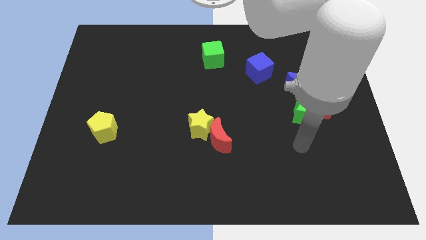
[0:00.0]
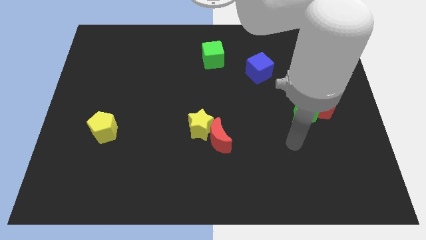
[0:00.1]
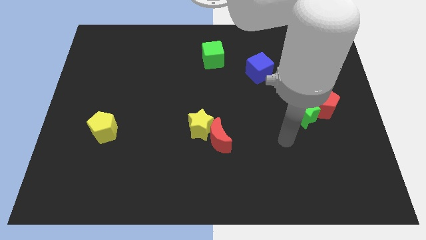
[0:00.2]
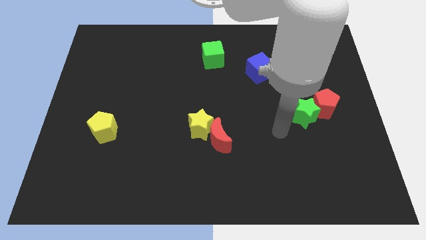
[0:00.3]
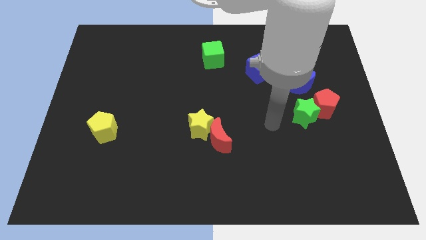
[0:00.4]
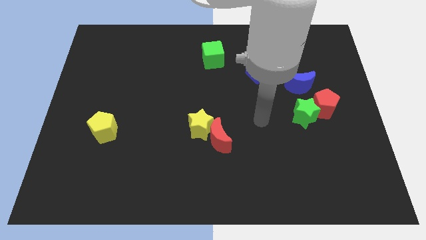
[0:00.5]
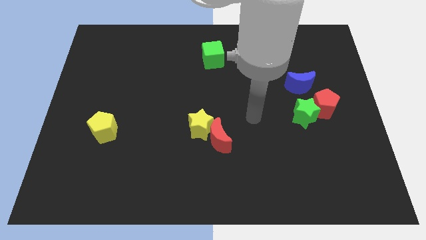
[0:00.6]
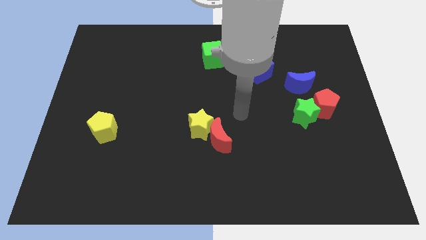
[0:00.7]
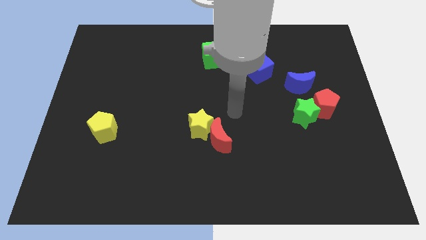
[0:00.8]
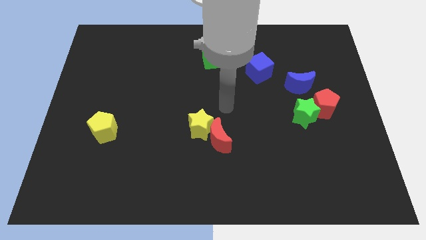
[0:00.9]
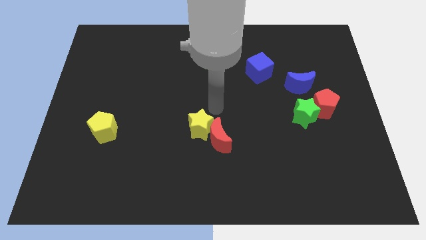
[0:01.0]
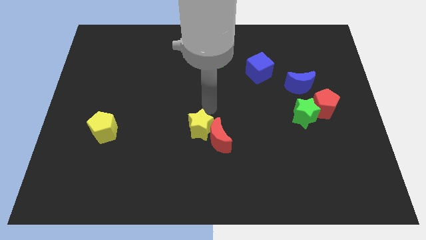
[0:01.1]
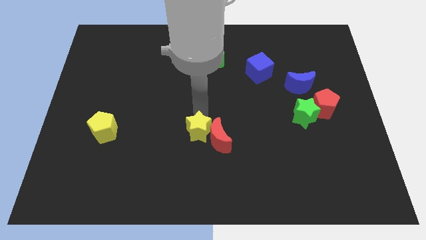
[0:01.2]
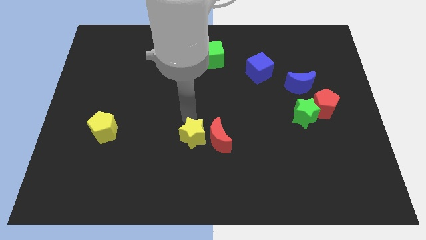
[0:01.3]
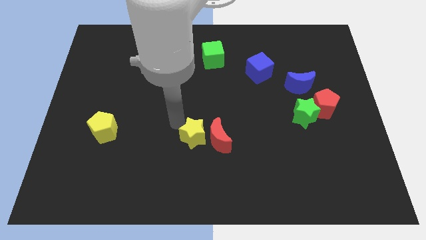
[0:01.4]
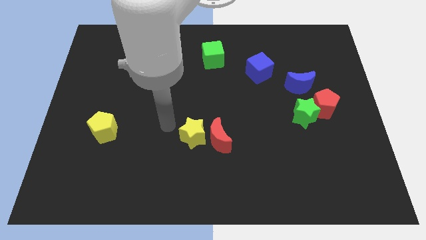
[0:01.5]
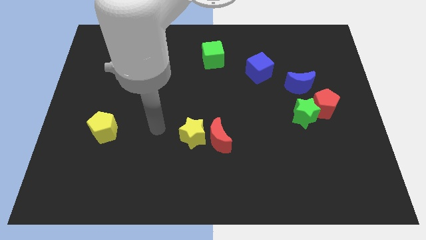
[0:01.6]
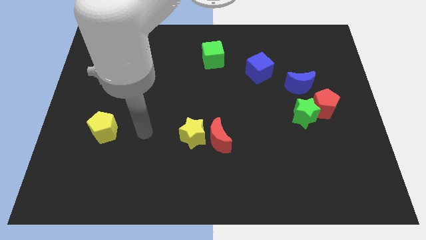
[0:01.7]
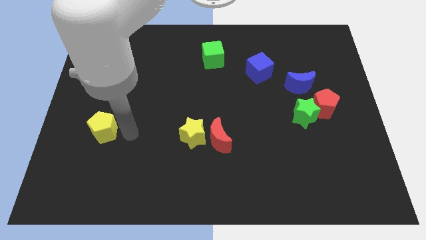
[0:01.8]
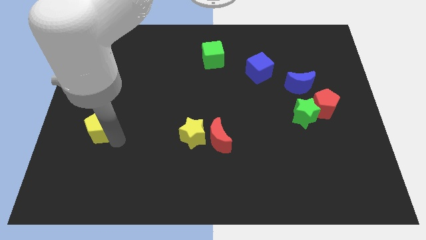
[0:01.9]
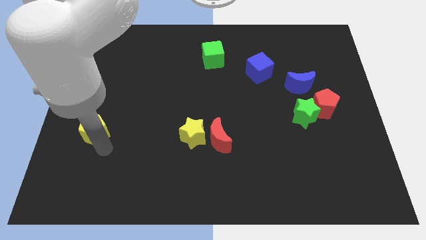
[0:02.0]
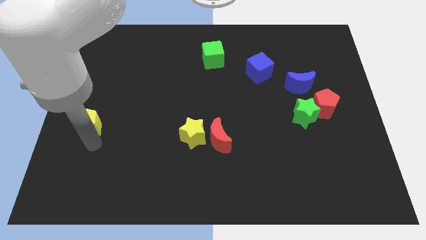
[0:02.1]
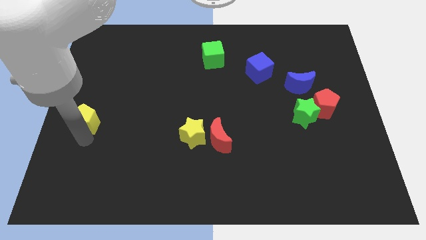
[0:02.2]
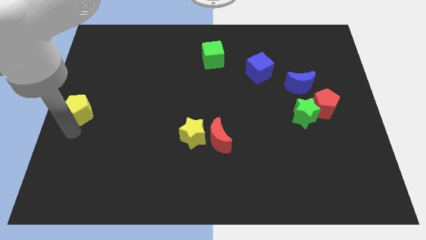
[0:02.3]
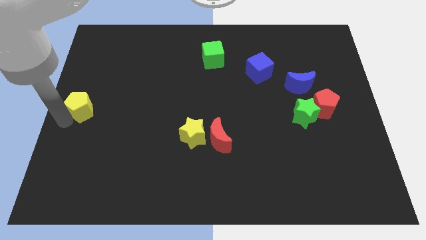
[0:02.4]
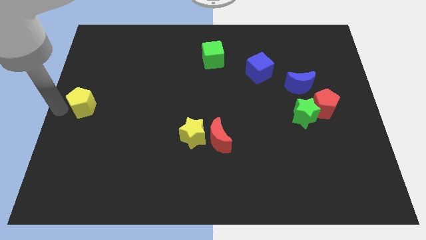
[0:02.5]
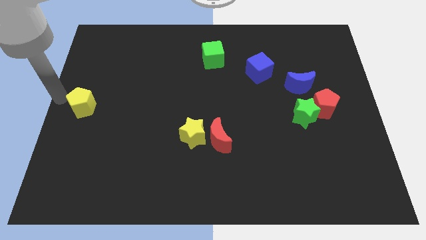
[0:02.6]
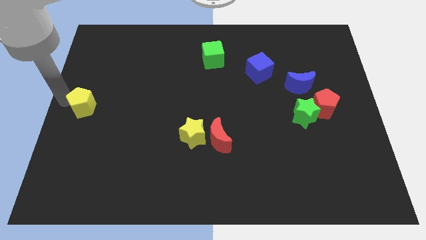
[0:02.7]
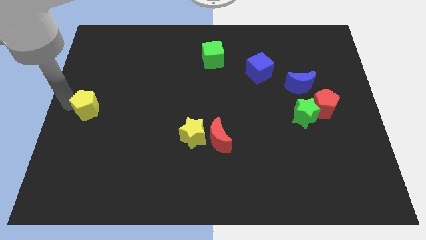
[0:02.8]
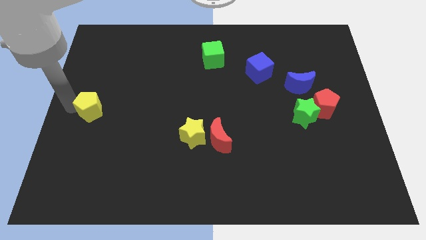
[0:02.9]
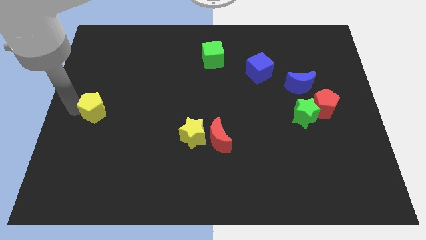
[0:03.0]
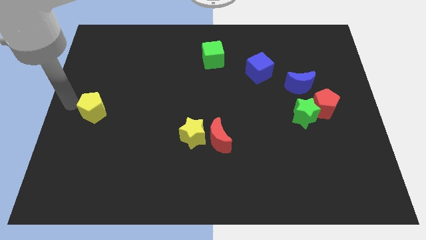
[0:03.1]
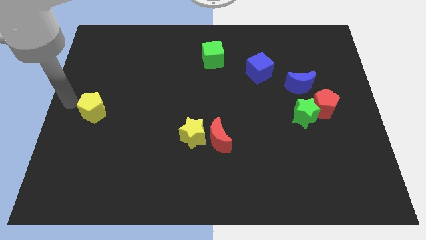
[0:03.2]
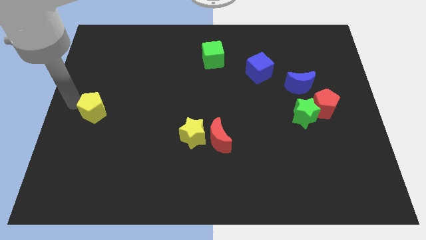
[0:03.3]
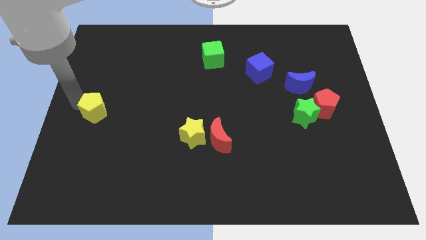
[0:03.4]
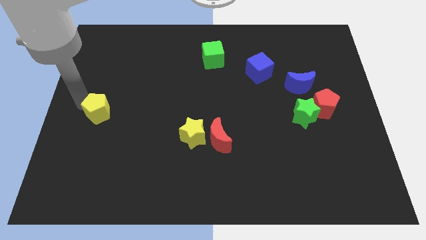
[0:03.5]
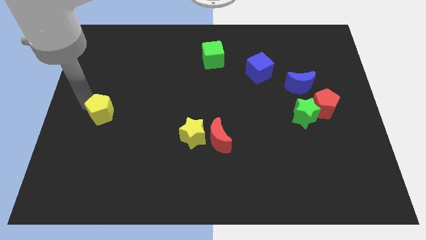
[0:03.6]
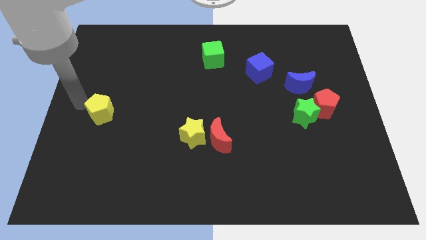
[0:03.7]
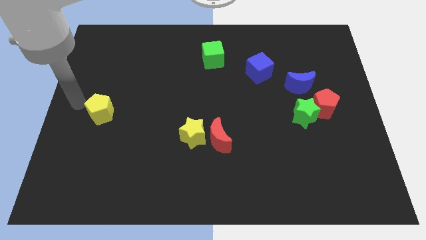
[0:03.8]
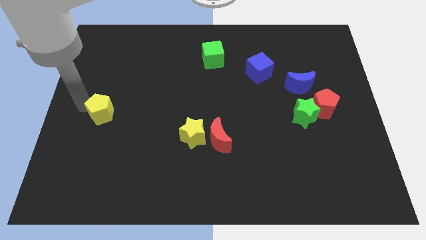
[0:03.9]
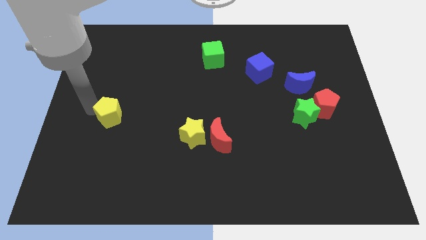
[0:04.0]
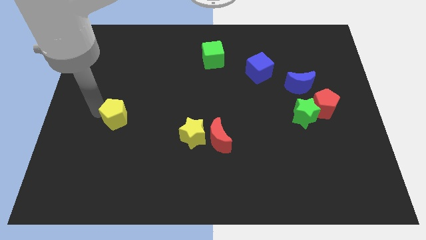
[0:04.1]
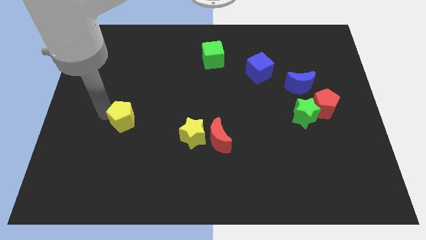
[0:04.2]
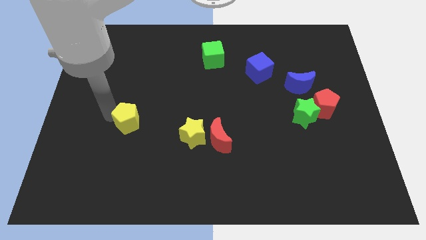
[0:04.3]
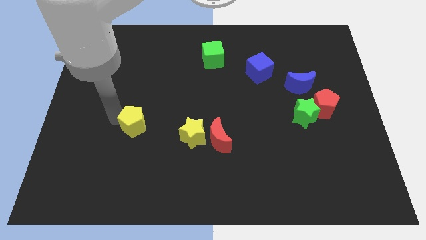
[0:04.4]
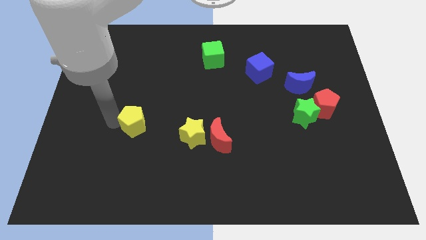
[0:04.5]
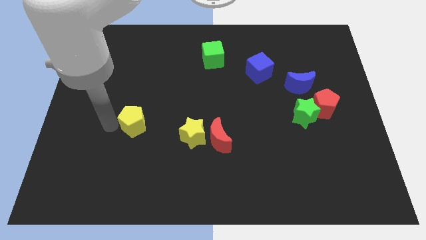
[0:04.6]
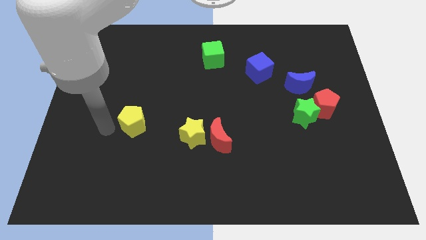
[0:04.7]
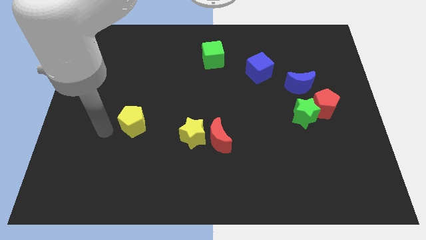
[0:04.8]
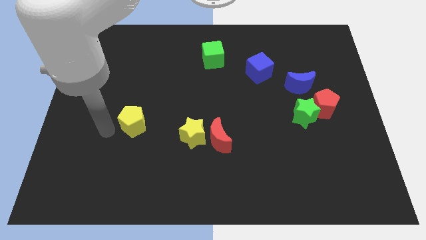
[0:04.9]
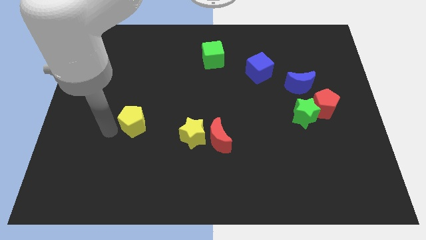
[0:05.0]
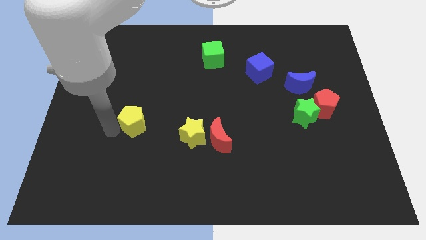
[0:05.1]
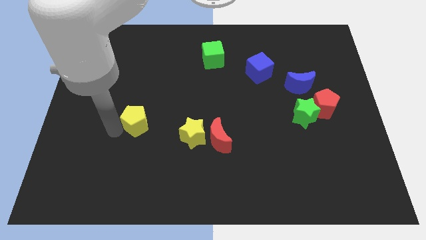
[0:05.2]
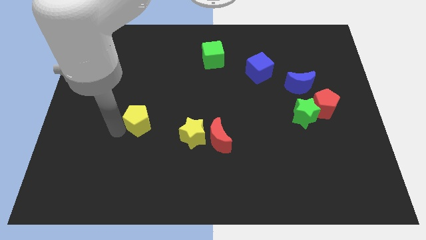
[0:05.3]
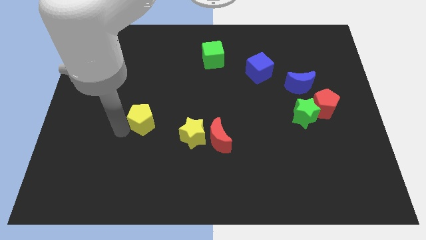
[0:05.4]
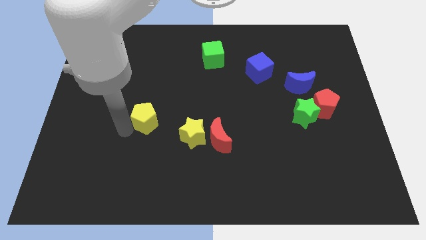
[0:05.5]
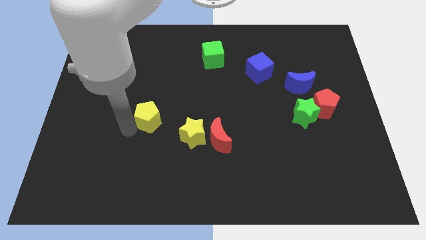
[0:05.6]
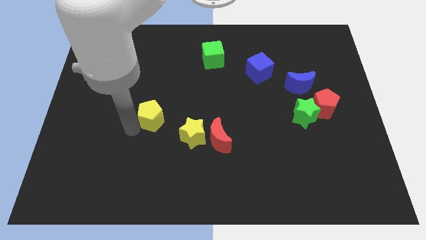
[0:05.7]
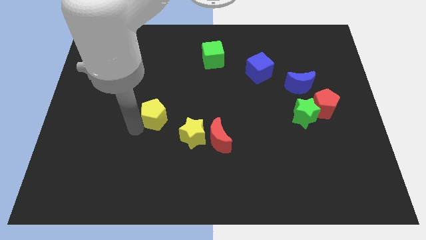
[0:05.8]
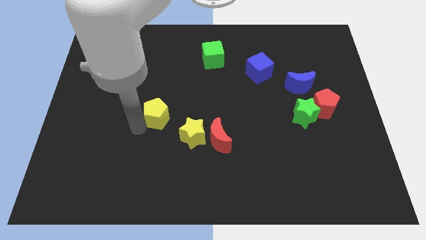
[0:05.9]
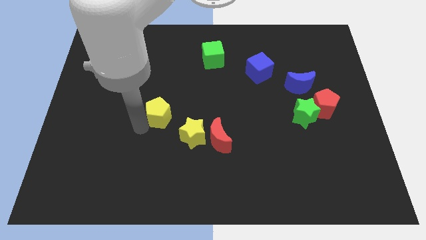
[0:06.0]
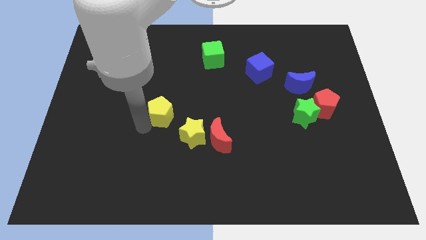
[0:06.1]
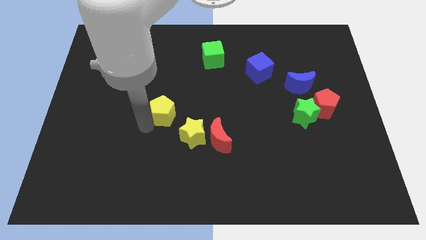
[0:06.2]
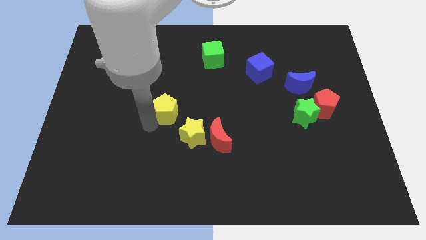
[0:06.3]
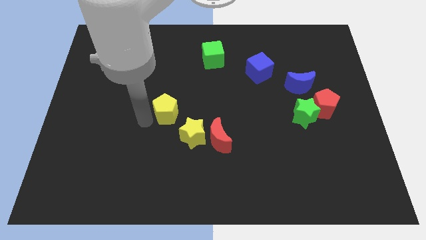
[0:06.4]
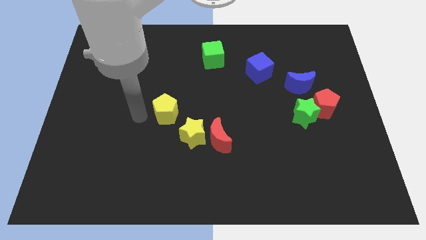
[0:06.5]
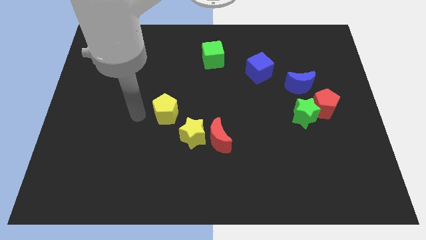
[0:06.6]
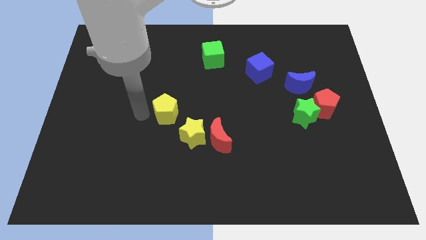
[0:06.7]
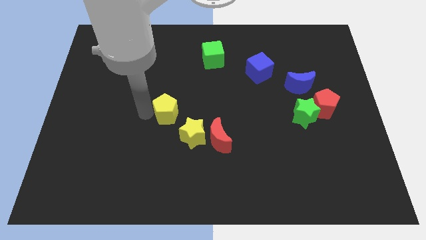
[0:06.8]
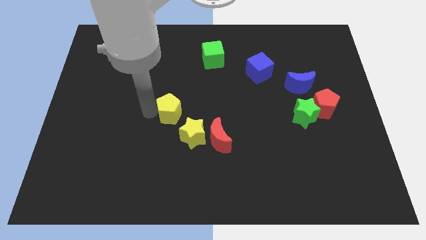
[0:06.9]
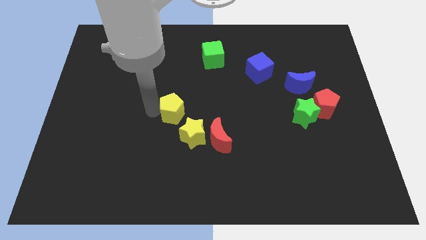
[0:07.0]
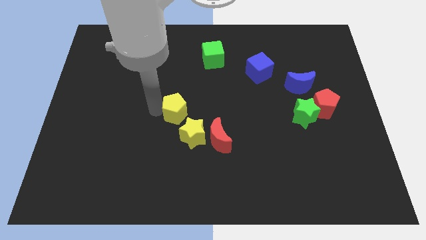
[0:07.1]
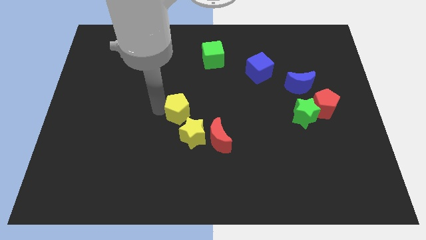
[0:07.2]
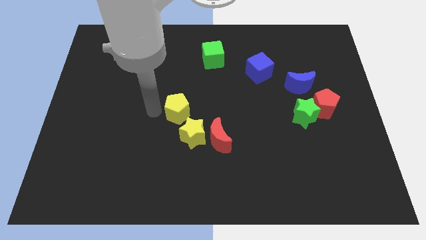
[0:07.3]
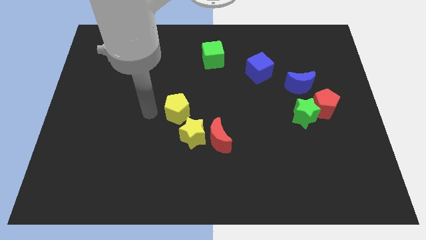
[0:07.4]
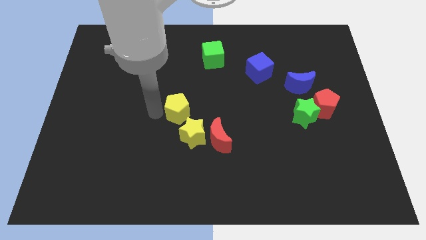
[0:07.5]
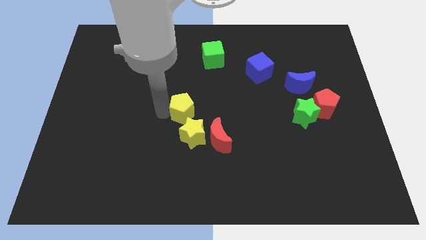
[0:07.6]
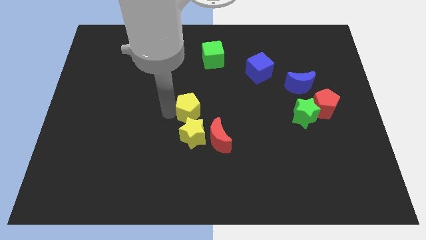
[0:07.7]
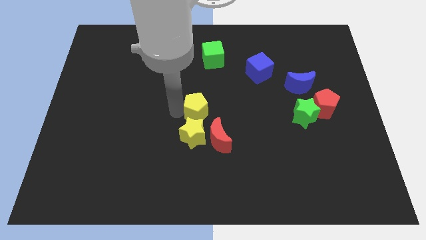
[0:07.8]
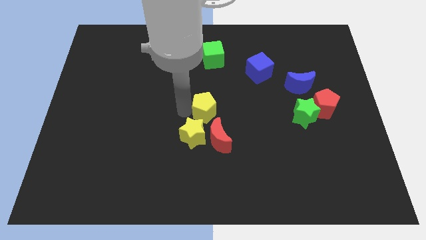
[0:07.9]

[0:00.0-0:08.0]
slide the yellow pentagon to the right
